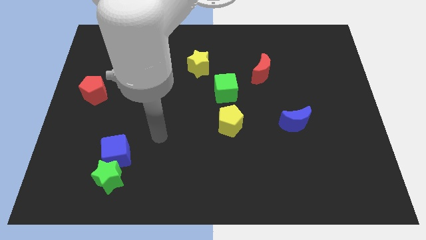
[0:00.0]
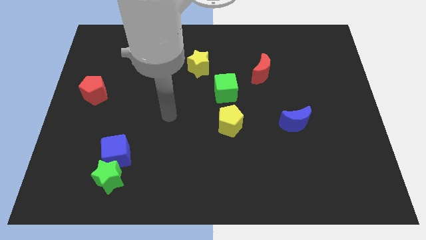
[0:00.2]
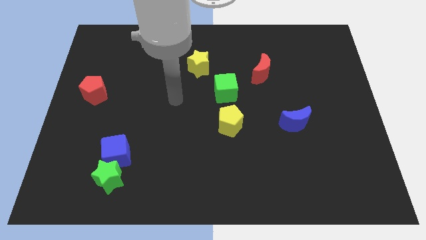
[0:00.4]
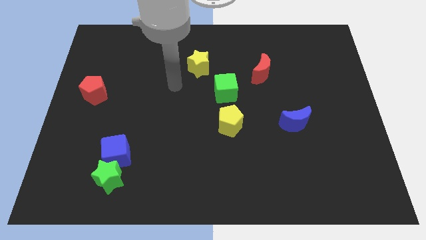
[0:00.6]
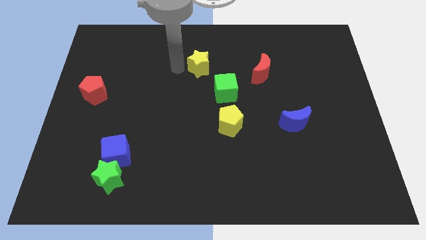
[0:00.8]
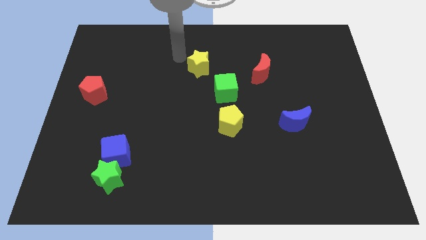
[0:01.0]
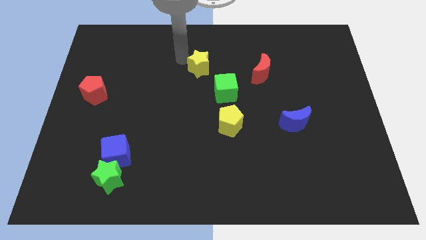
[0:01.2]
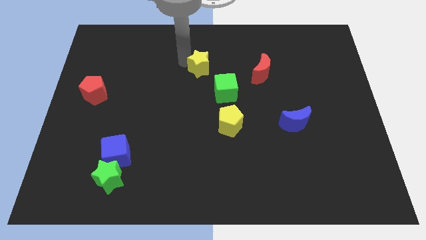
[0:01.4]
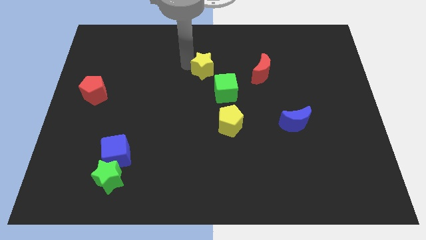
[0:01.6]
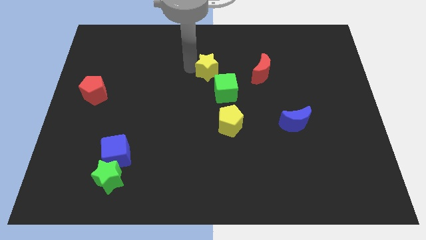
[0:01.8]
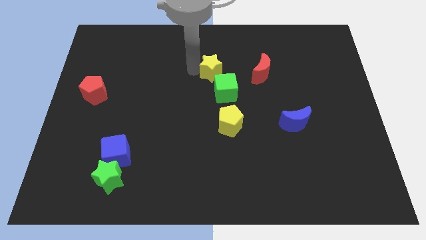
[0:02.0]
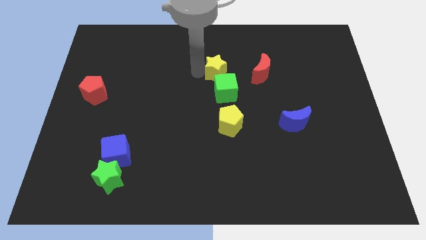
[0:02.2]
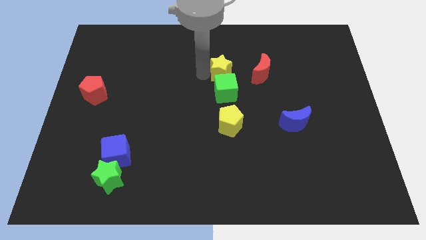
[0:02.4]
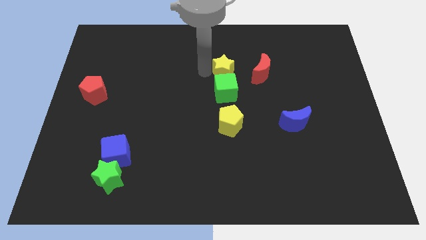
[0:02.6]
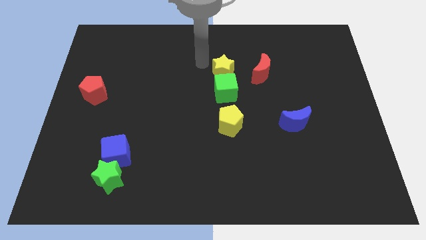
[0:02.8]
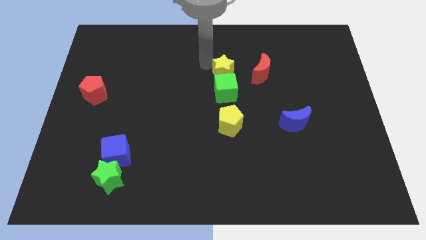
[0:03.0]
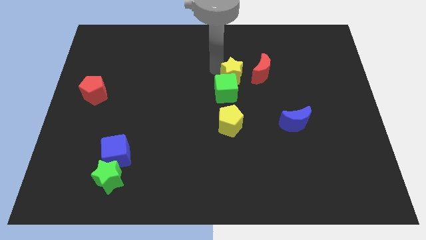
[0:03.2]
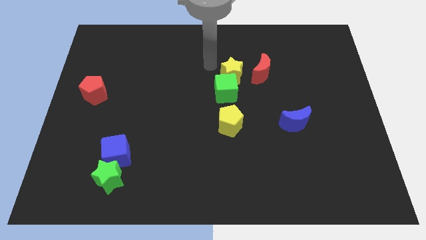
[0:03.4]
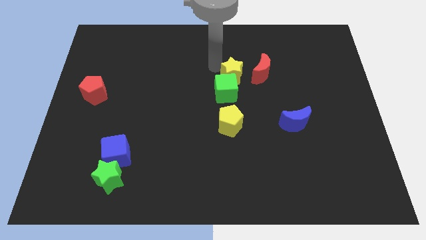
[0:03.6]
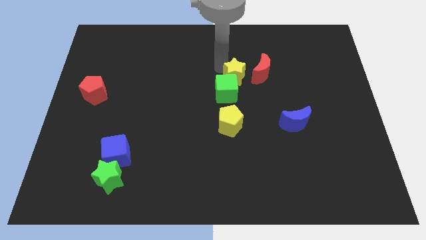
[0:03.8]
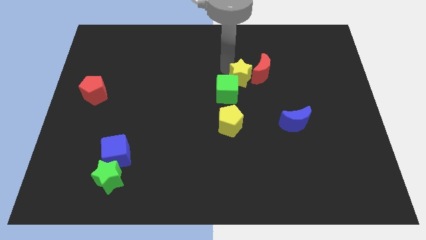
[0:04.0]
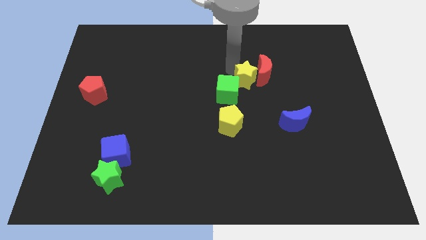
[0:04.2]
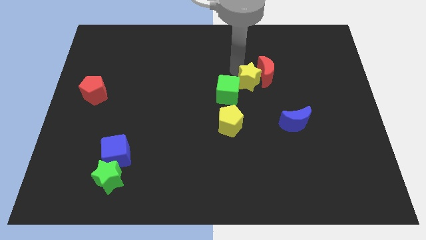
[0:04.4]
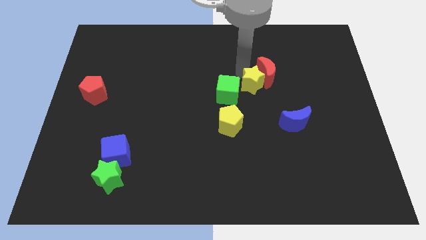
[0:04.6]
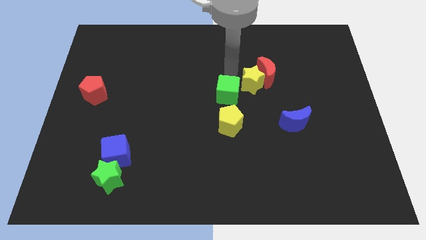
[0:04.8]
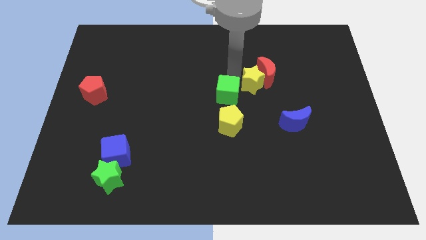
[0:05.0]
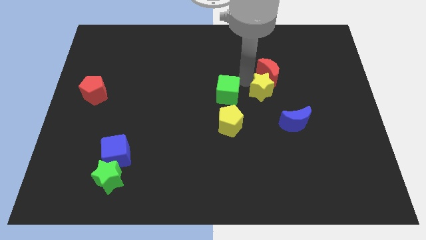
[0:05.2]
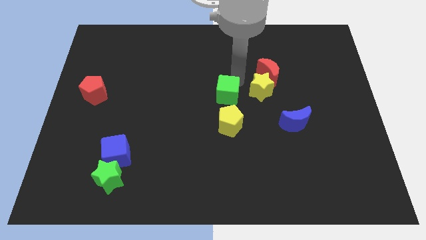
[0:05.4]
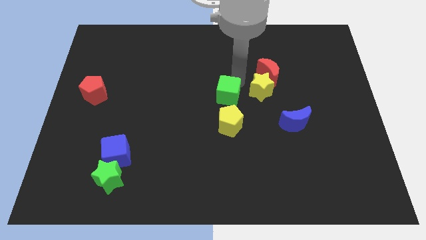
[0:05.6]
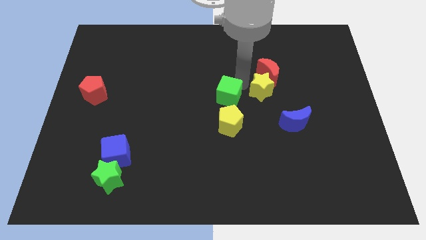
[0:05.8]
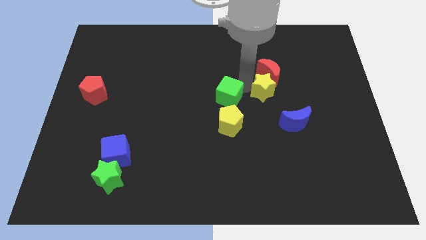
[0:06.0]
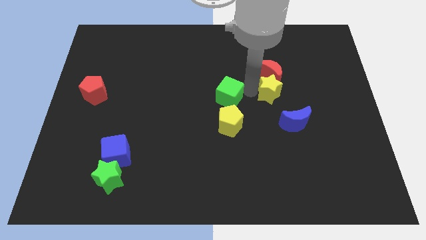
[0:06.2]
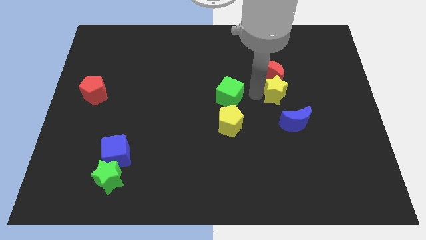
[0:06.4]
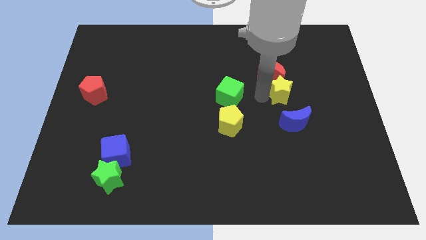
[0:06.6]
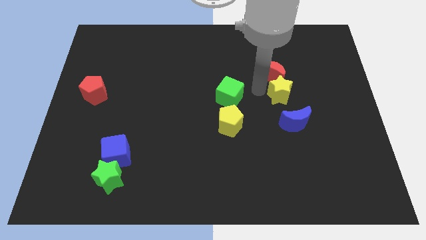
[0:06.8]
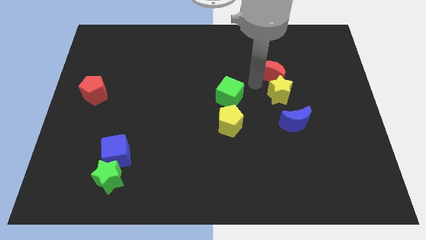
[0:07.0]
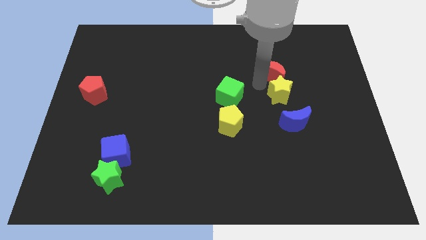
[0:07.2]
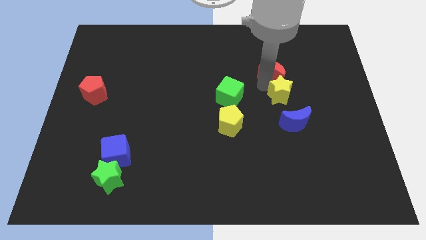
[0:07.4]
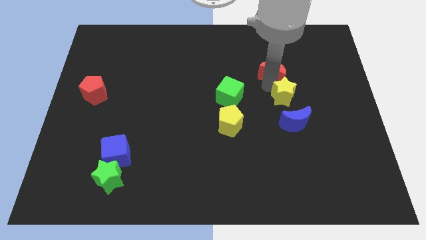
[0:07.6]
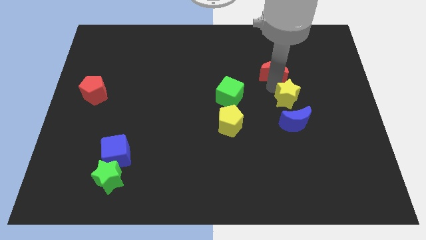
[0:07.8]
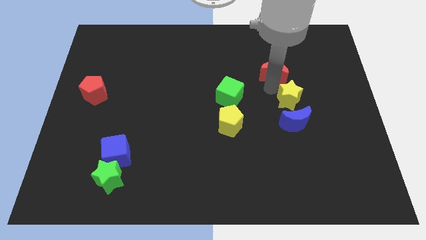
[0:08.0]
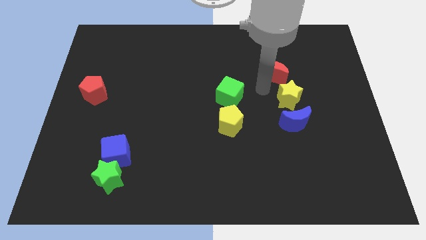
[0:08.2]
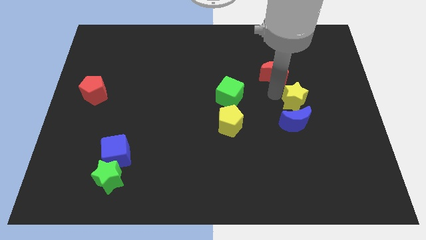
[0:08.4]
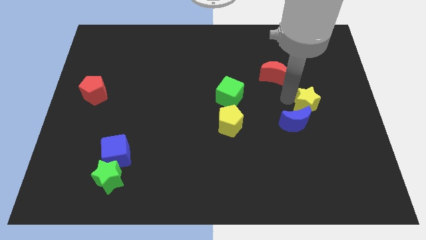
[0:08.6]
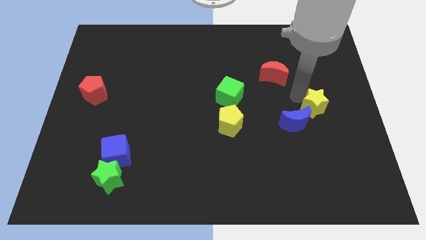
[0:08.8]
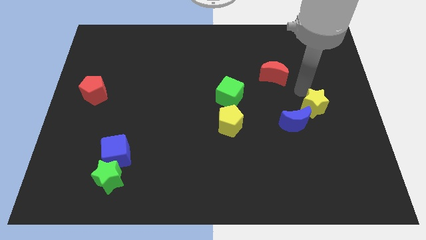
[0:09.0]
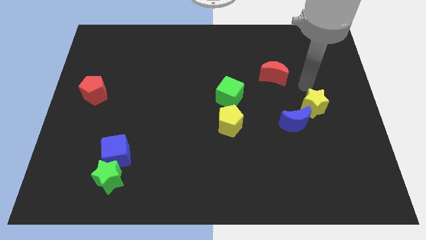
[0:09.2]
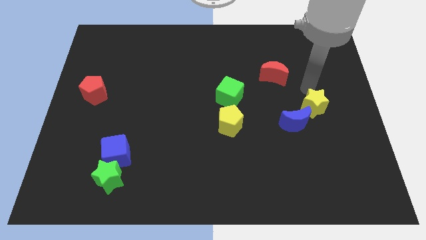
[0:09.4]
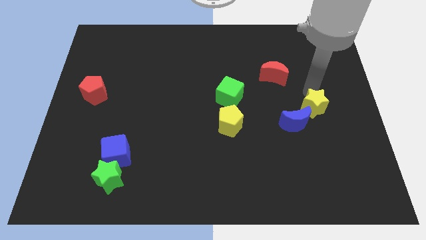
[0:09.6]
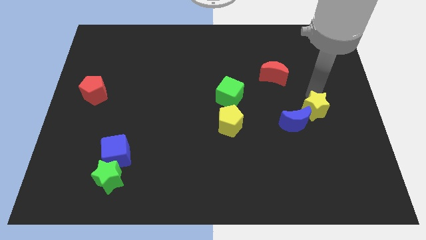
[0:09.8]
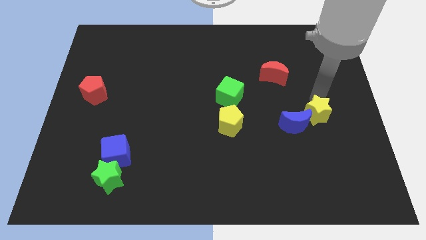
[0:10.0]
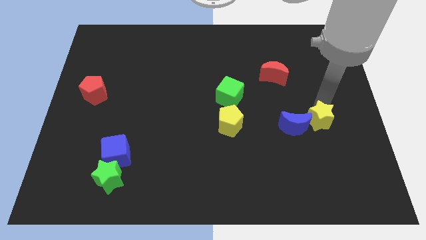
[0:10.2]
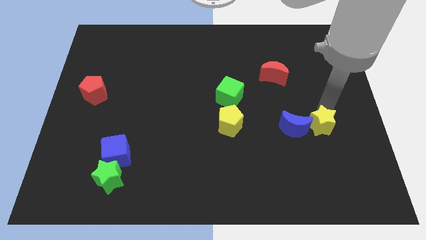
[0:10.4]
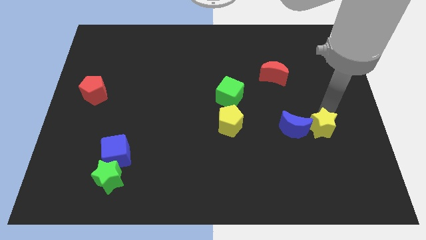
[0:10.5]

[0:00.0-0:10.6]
slide the yellow star to the bottom right of the blue moon

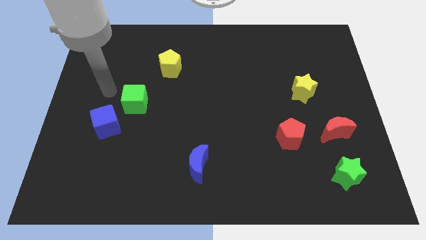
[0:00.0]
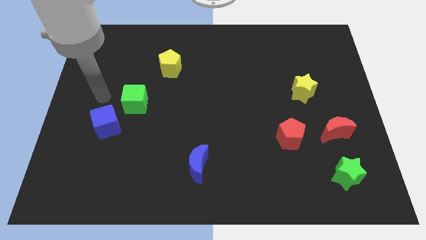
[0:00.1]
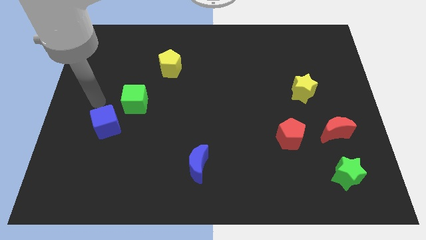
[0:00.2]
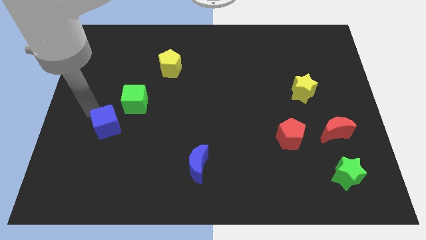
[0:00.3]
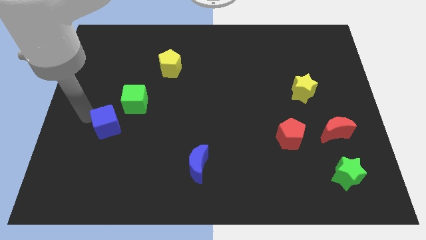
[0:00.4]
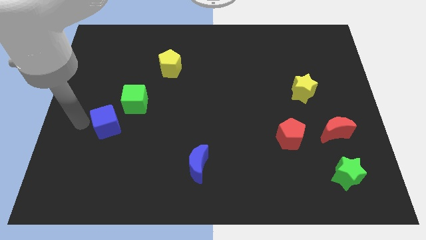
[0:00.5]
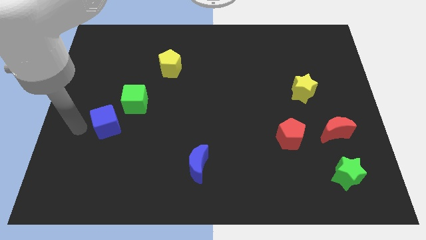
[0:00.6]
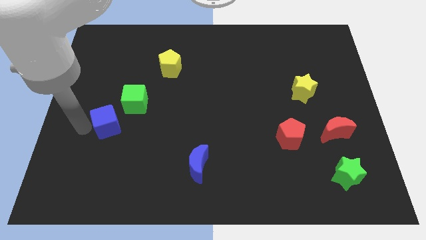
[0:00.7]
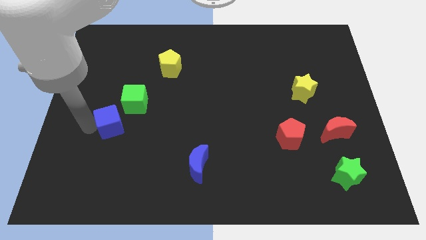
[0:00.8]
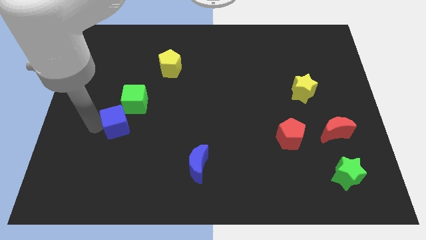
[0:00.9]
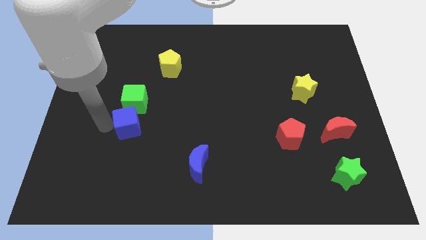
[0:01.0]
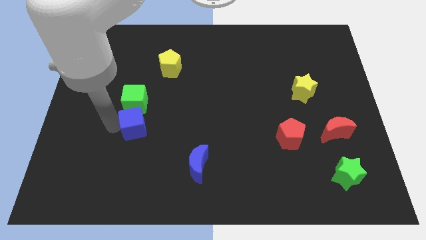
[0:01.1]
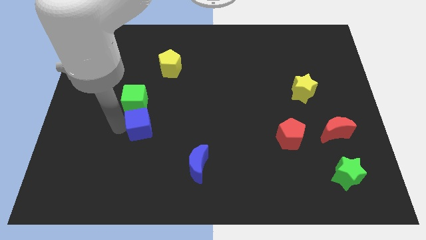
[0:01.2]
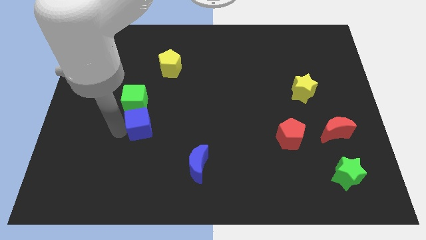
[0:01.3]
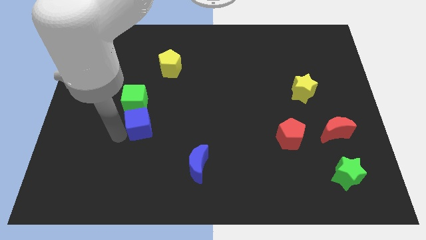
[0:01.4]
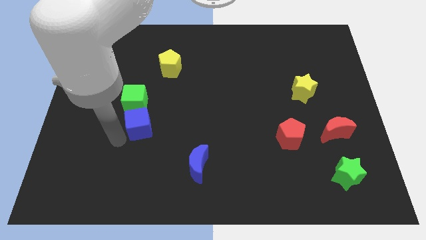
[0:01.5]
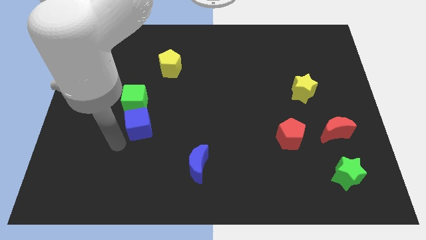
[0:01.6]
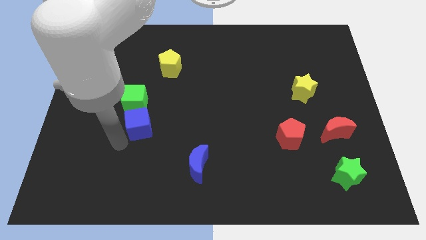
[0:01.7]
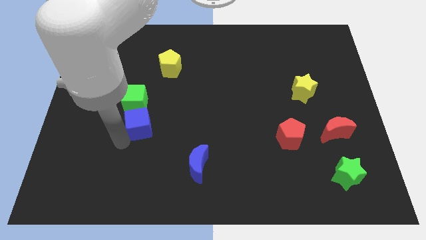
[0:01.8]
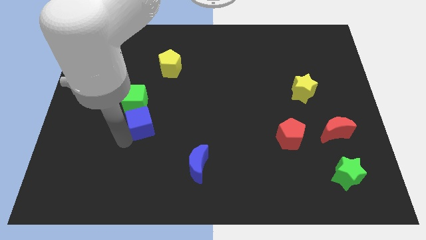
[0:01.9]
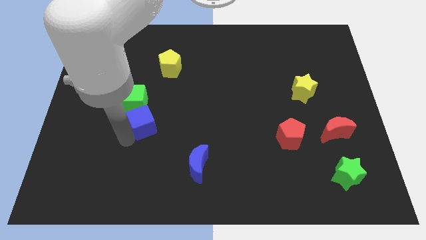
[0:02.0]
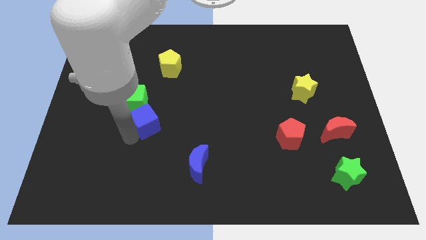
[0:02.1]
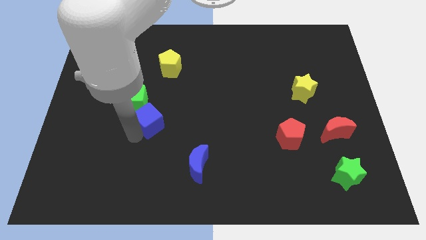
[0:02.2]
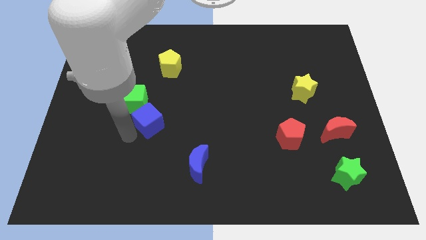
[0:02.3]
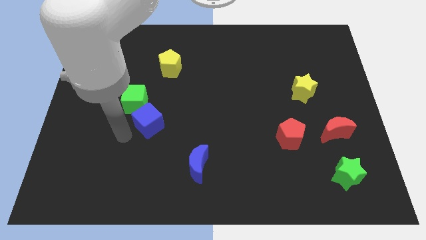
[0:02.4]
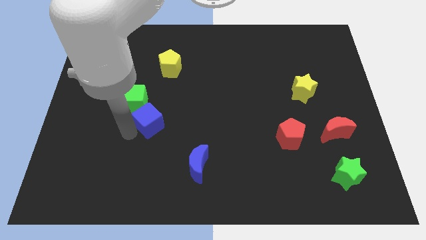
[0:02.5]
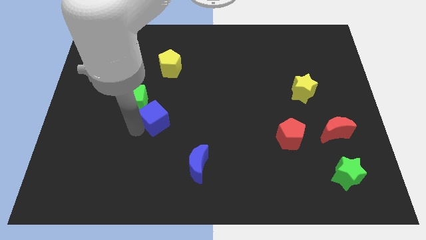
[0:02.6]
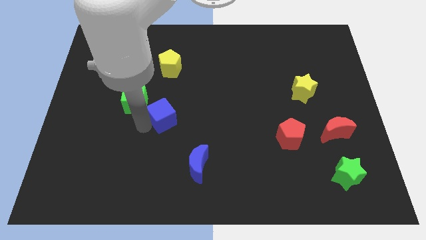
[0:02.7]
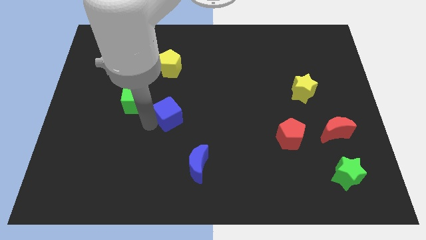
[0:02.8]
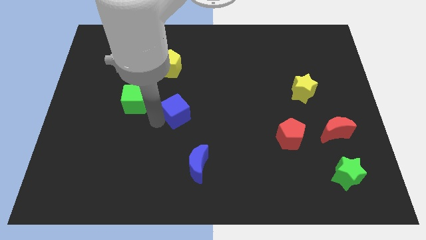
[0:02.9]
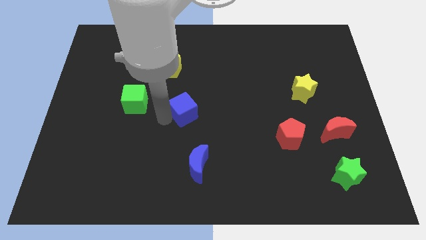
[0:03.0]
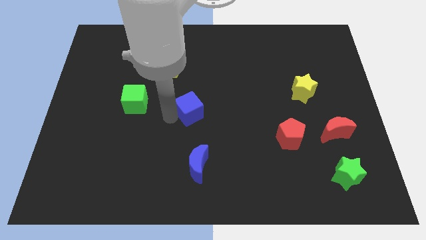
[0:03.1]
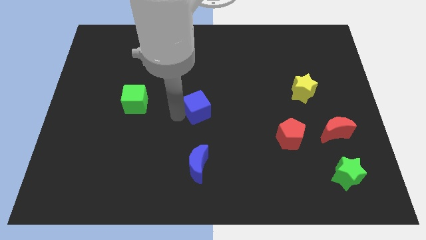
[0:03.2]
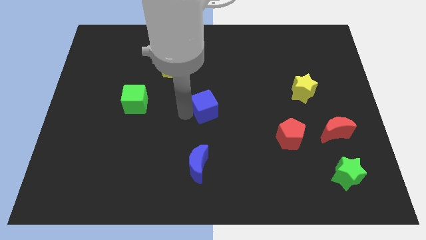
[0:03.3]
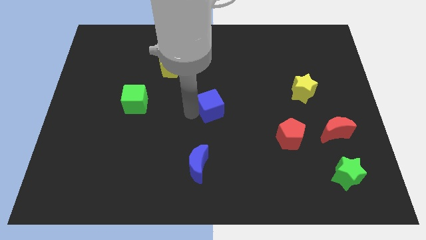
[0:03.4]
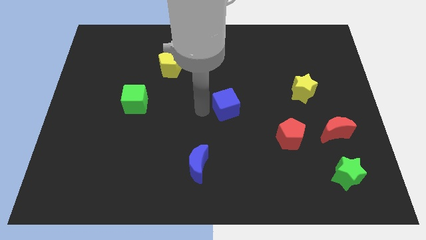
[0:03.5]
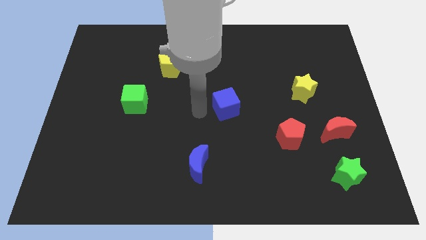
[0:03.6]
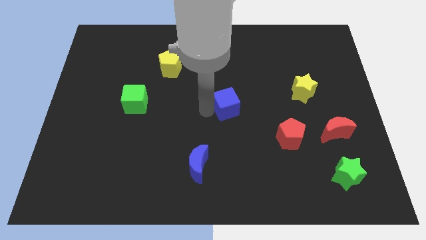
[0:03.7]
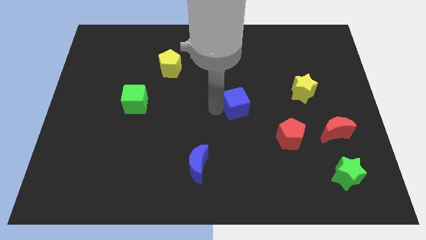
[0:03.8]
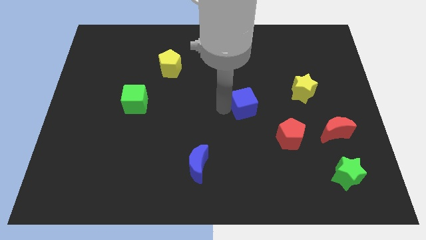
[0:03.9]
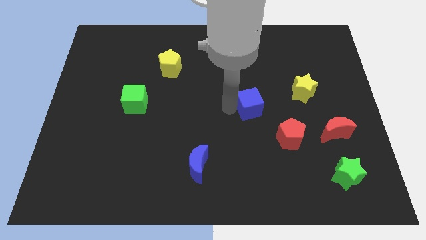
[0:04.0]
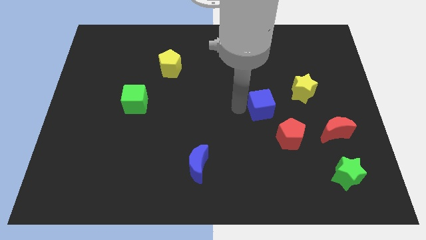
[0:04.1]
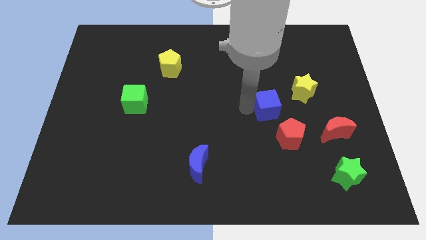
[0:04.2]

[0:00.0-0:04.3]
move the blue cube above the red pentagon
